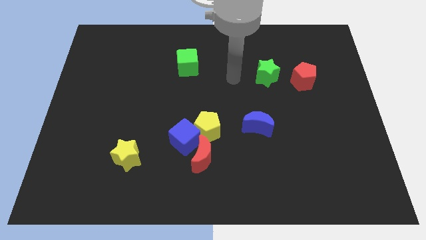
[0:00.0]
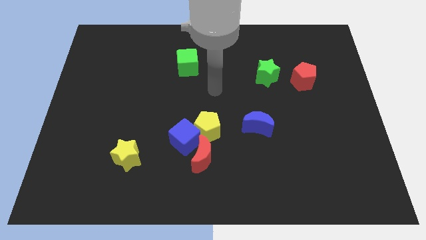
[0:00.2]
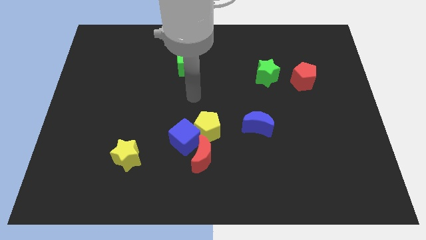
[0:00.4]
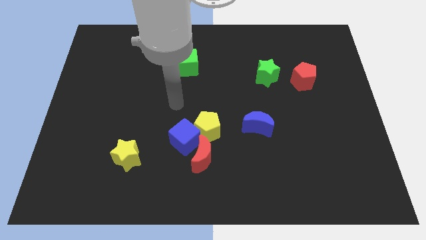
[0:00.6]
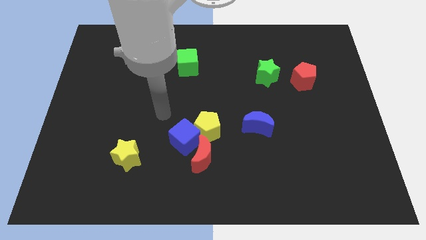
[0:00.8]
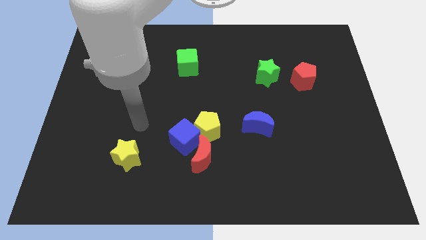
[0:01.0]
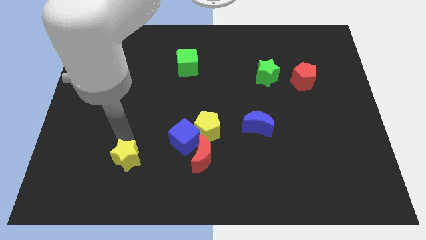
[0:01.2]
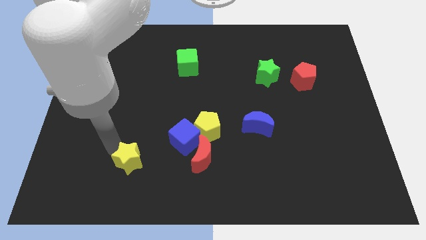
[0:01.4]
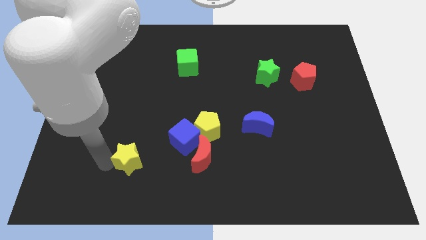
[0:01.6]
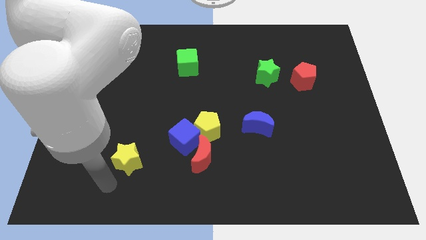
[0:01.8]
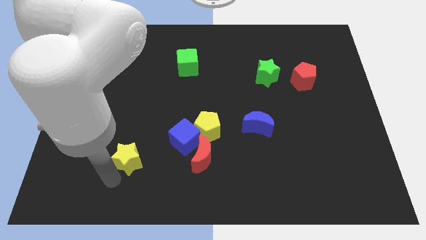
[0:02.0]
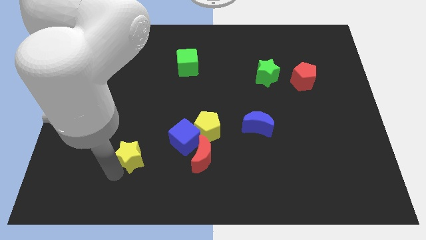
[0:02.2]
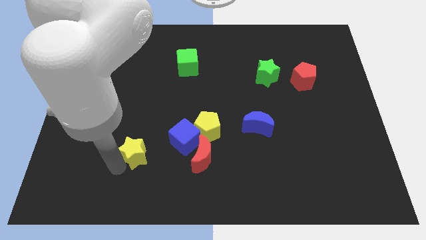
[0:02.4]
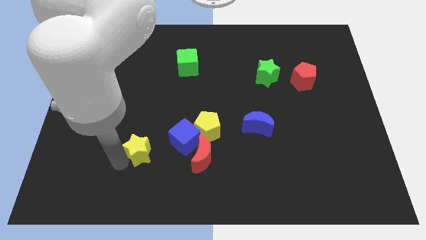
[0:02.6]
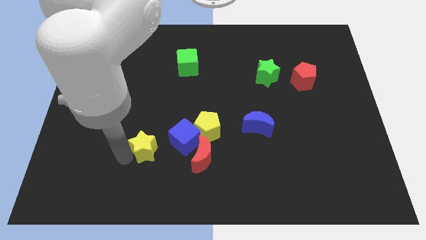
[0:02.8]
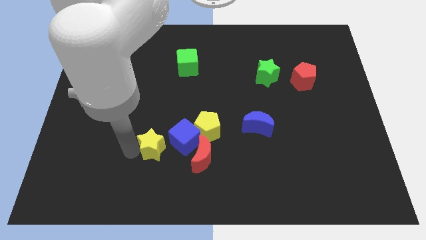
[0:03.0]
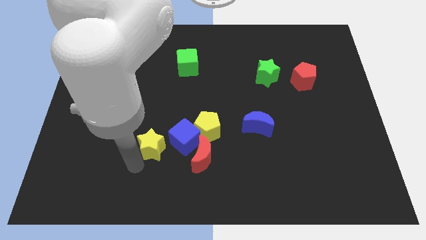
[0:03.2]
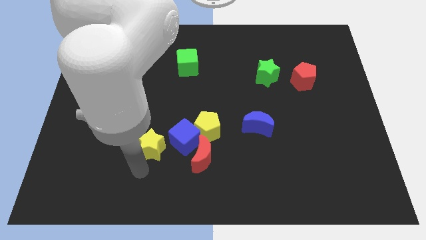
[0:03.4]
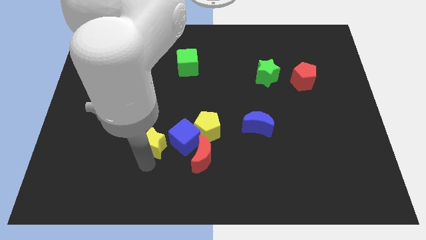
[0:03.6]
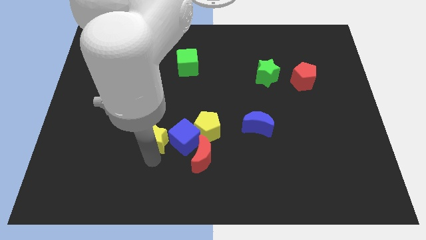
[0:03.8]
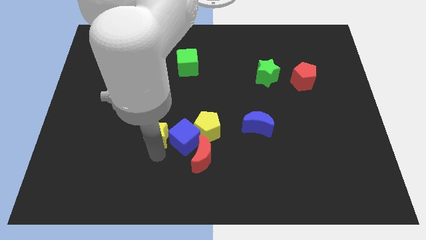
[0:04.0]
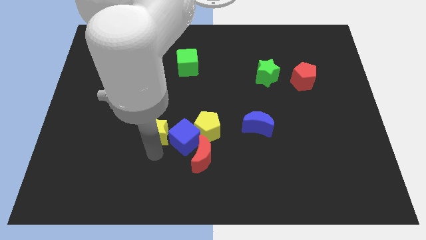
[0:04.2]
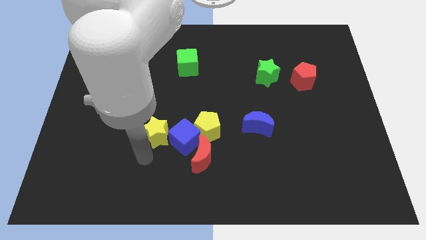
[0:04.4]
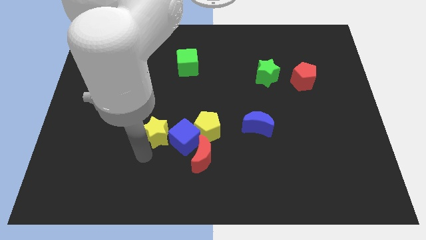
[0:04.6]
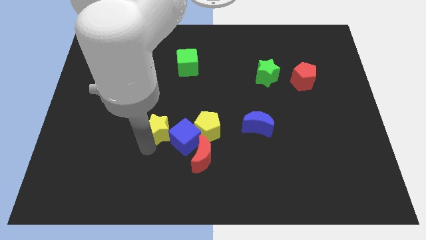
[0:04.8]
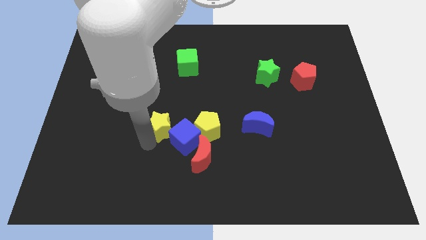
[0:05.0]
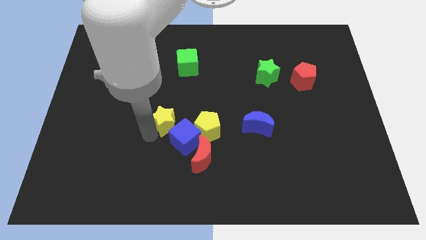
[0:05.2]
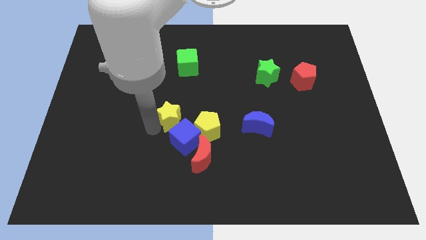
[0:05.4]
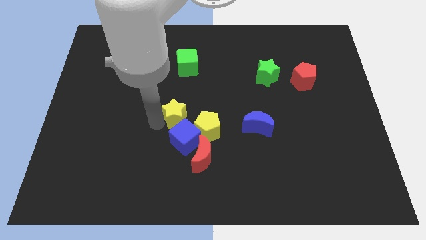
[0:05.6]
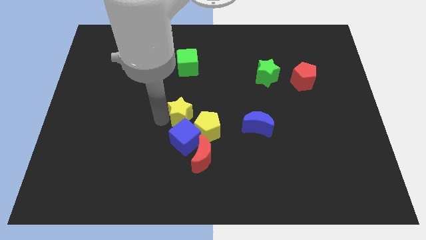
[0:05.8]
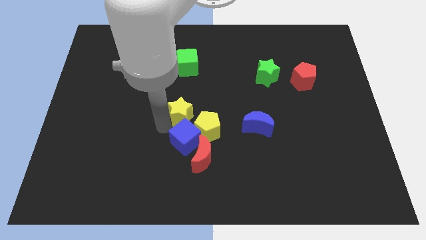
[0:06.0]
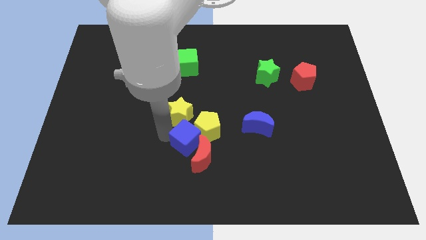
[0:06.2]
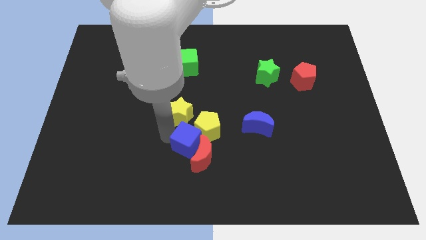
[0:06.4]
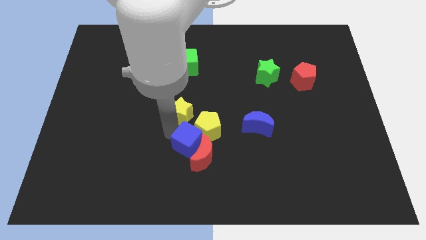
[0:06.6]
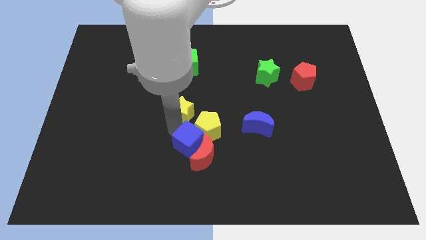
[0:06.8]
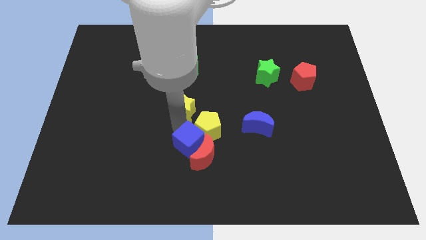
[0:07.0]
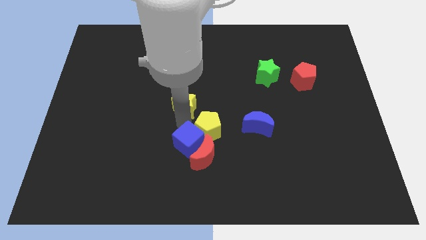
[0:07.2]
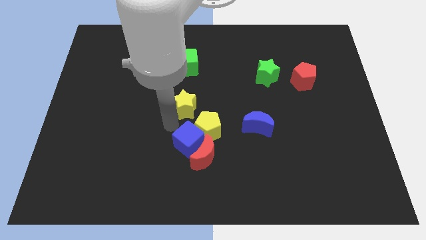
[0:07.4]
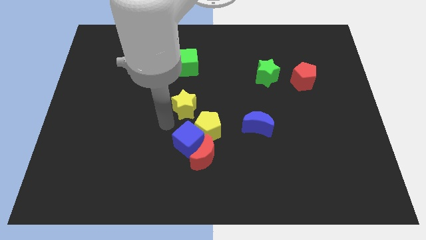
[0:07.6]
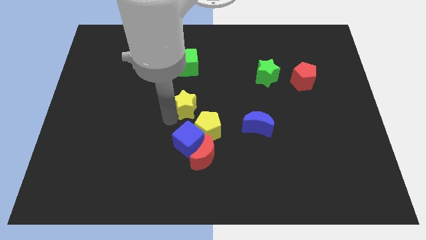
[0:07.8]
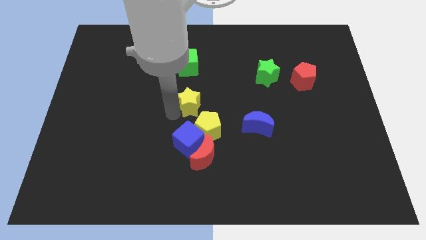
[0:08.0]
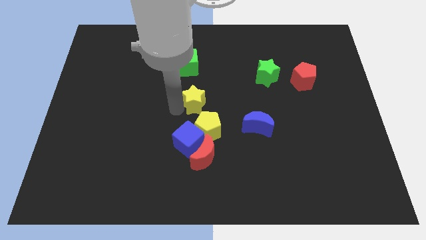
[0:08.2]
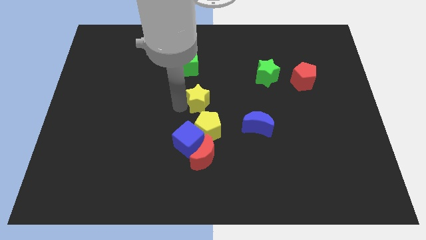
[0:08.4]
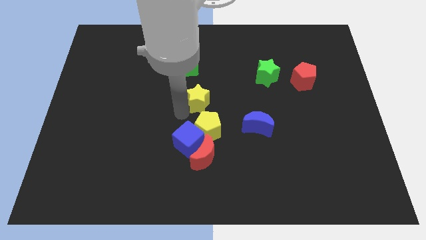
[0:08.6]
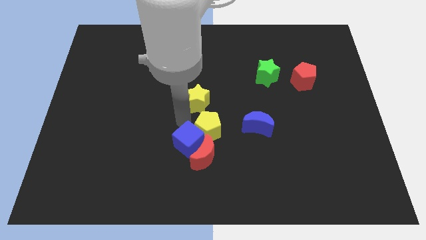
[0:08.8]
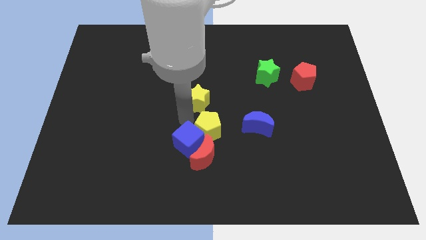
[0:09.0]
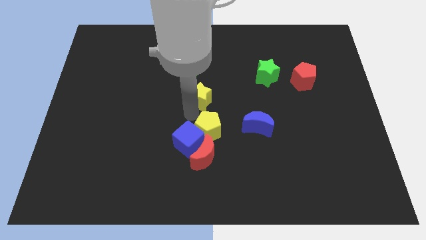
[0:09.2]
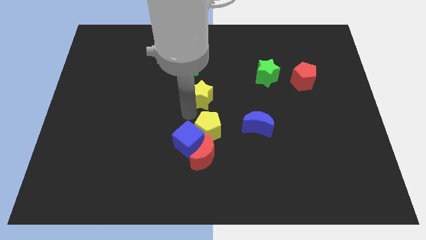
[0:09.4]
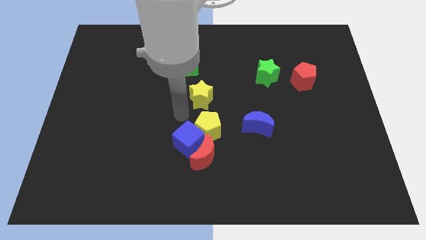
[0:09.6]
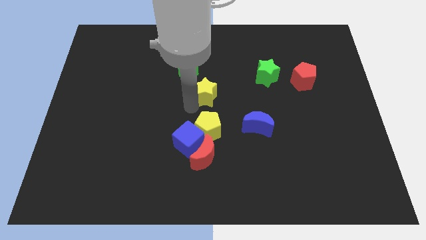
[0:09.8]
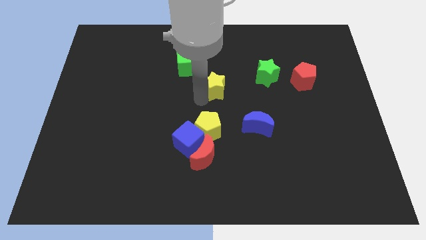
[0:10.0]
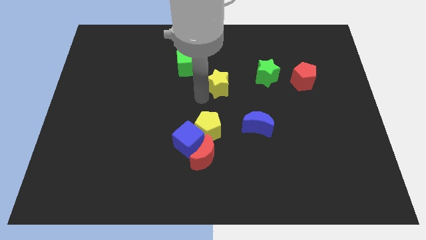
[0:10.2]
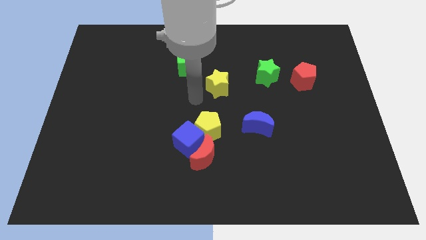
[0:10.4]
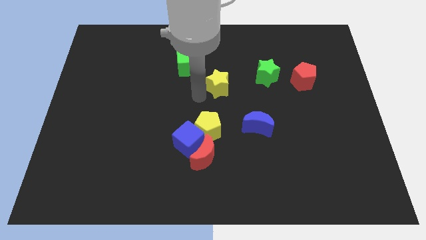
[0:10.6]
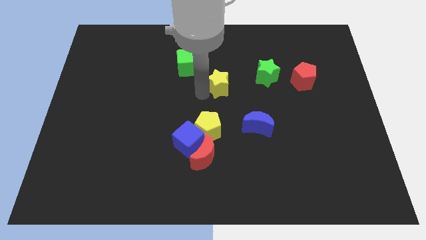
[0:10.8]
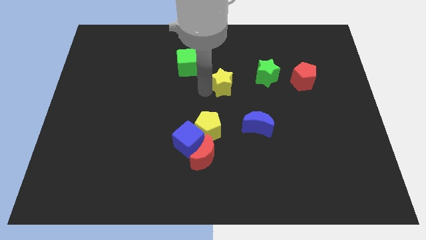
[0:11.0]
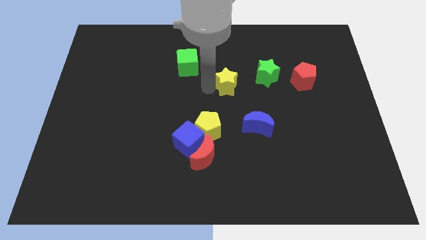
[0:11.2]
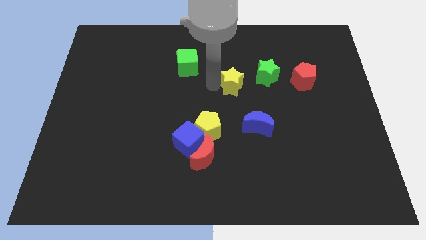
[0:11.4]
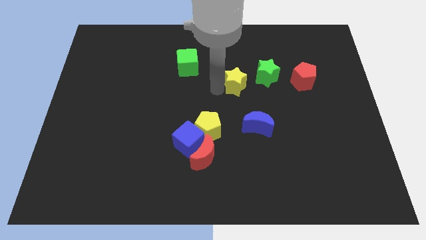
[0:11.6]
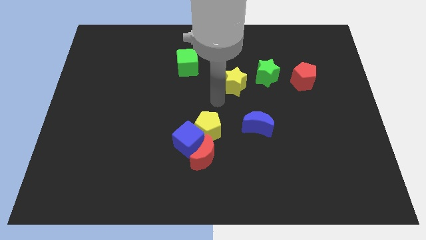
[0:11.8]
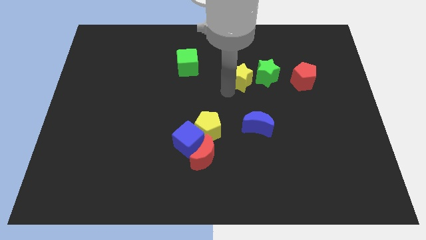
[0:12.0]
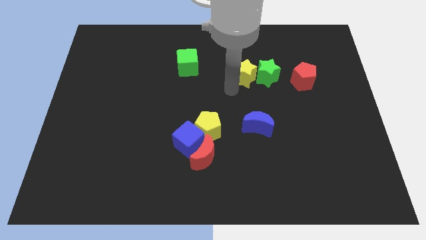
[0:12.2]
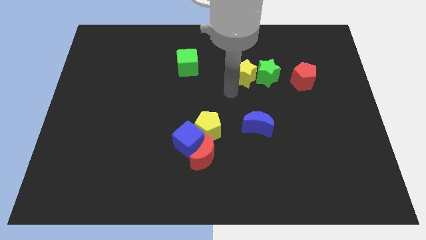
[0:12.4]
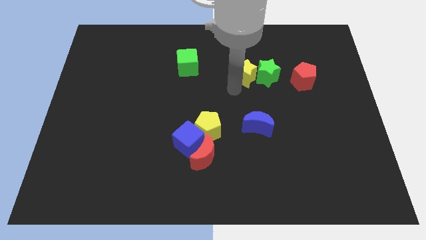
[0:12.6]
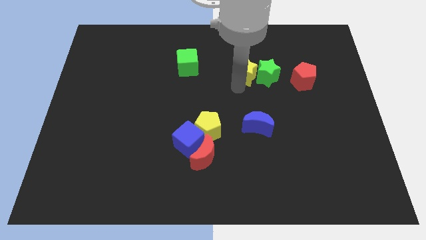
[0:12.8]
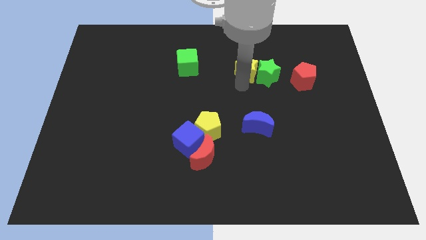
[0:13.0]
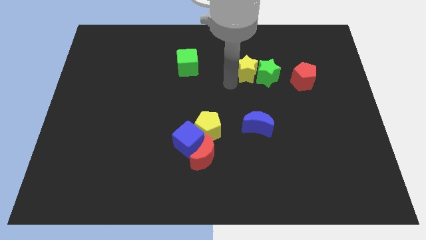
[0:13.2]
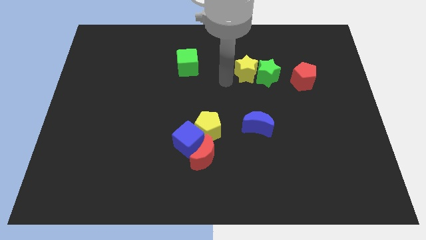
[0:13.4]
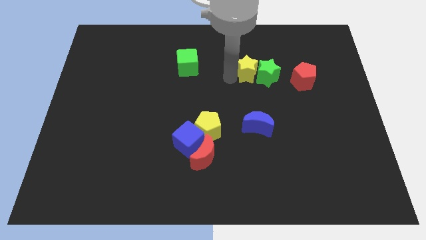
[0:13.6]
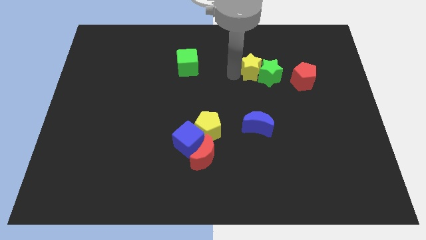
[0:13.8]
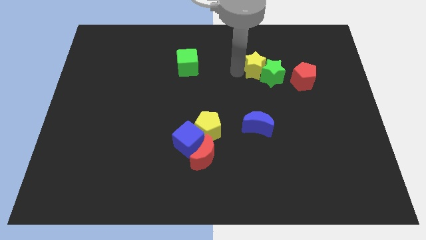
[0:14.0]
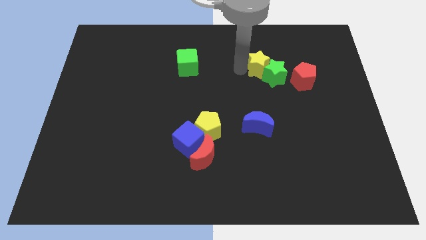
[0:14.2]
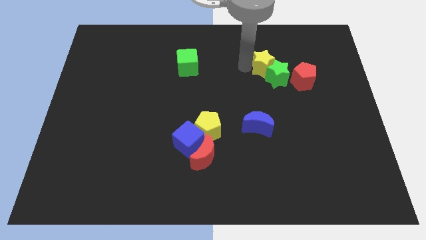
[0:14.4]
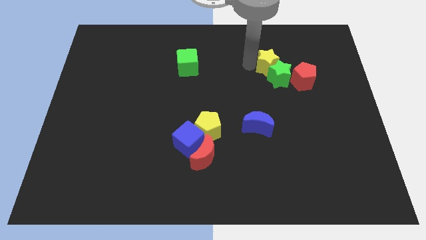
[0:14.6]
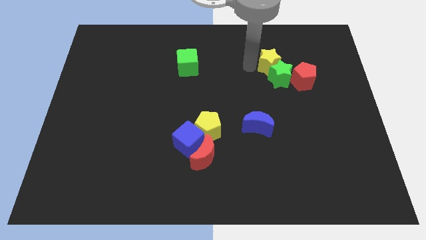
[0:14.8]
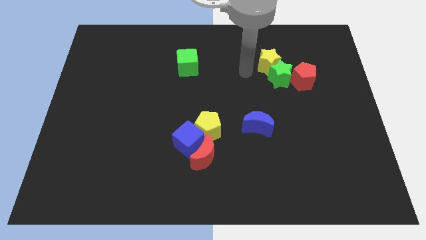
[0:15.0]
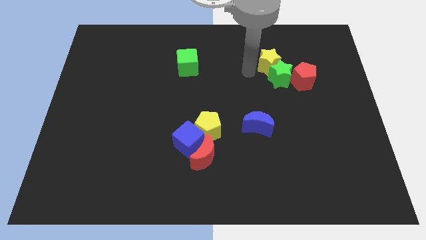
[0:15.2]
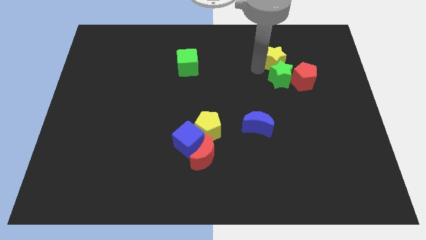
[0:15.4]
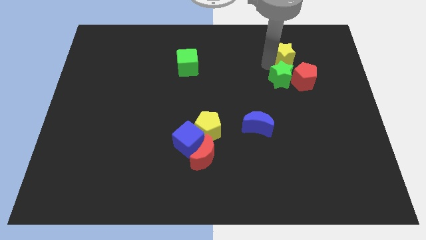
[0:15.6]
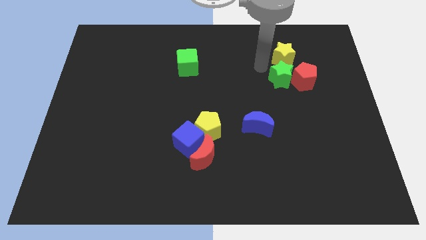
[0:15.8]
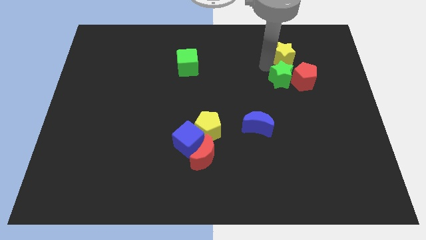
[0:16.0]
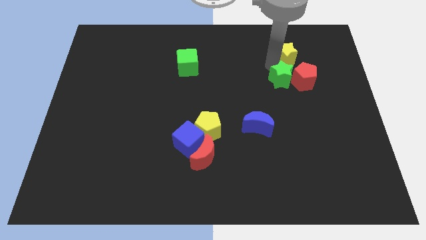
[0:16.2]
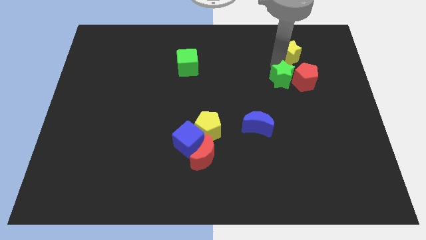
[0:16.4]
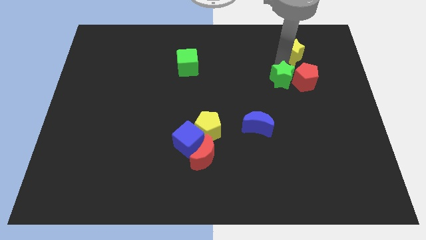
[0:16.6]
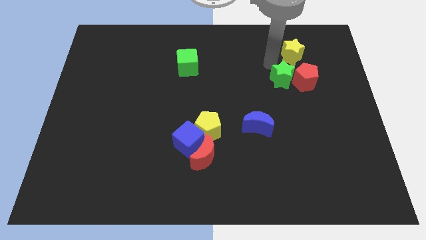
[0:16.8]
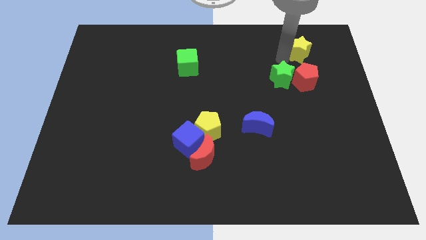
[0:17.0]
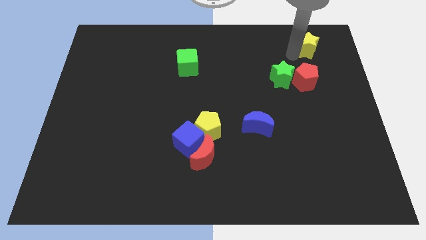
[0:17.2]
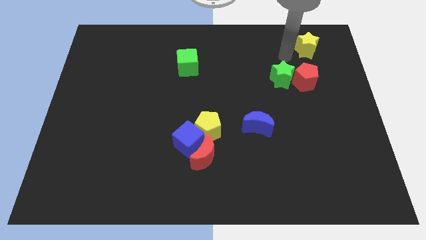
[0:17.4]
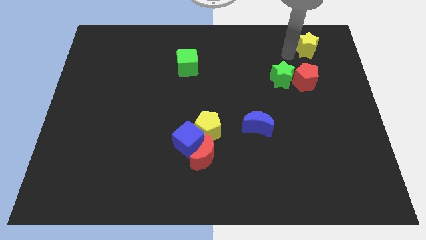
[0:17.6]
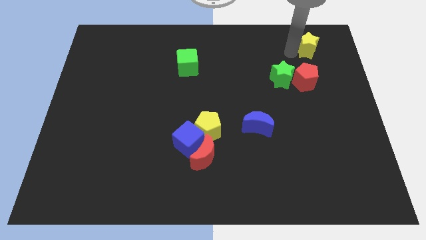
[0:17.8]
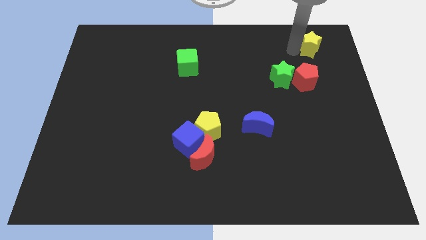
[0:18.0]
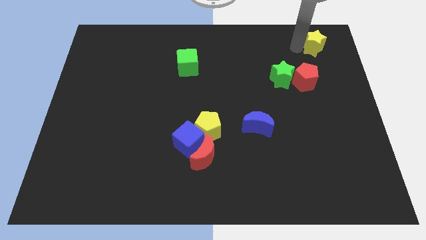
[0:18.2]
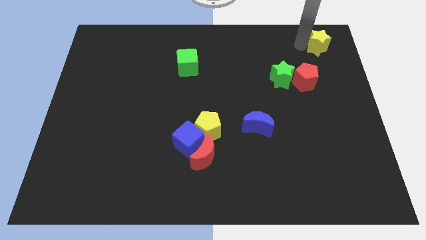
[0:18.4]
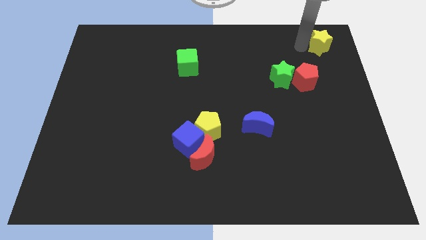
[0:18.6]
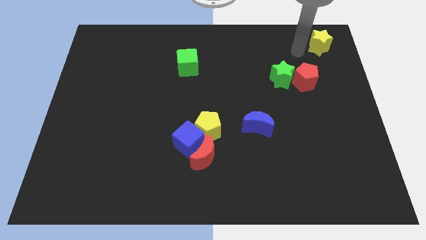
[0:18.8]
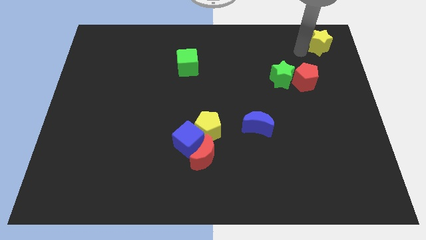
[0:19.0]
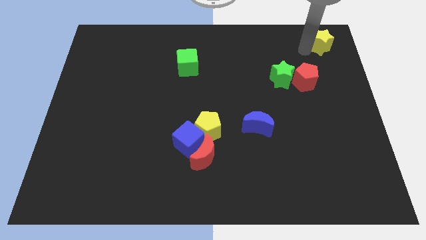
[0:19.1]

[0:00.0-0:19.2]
push the yellow star to the upper right corner
